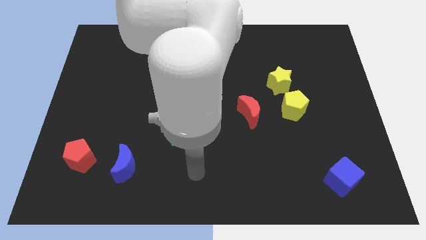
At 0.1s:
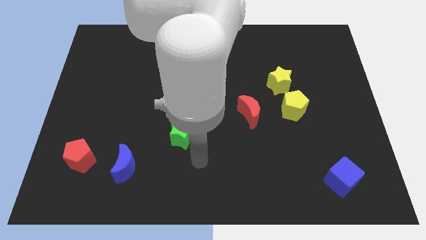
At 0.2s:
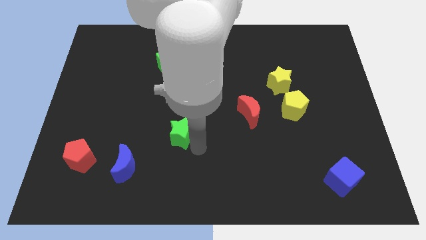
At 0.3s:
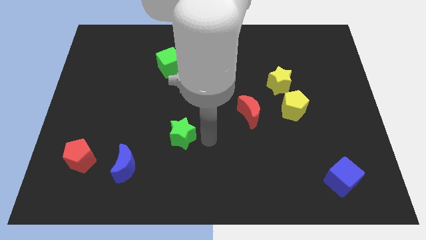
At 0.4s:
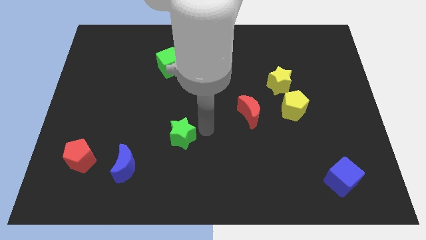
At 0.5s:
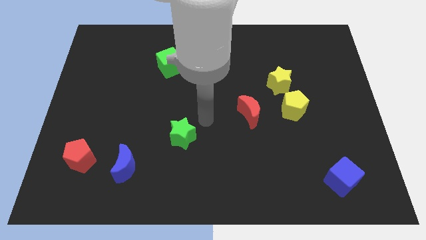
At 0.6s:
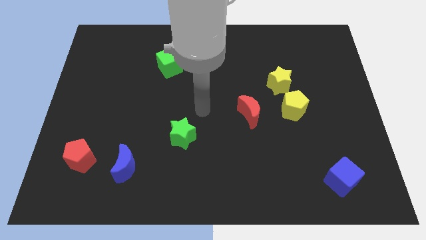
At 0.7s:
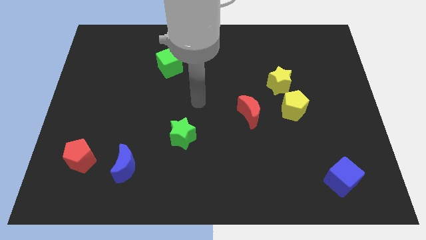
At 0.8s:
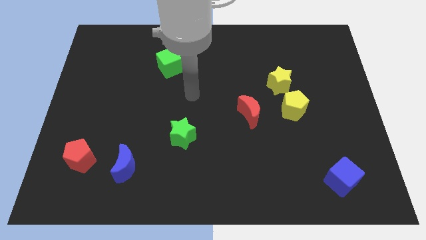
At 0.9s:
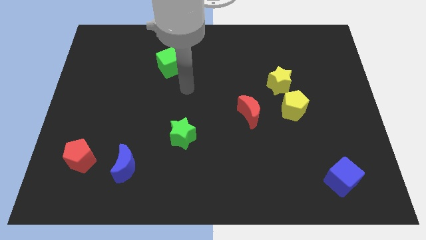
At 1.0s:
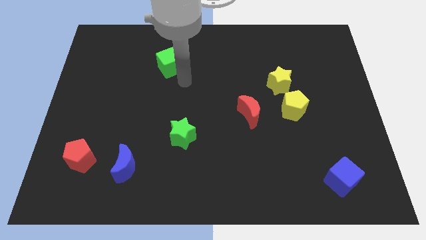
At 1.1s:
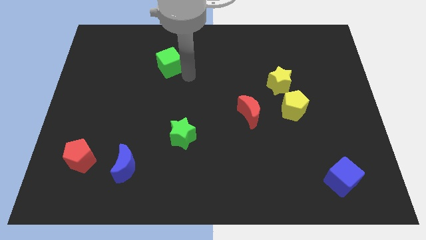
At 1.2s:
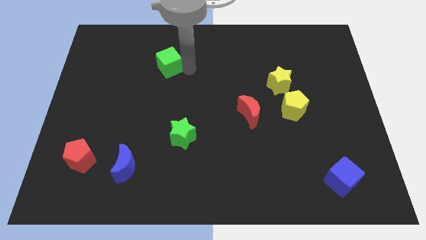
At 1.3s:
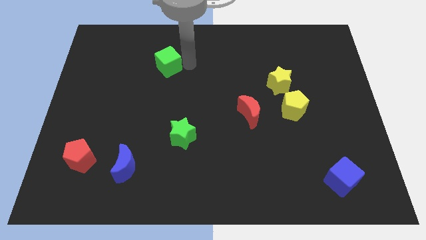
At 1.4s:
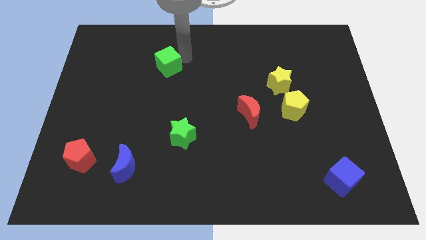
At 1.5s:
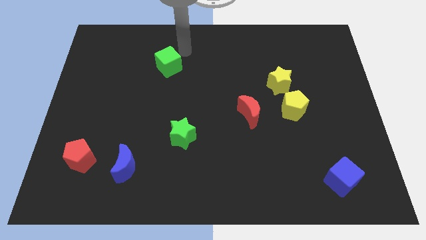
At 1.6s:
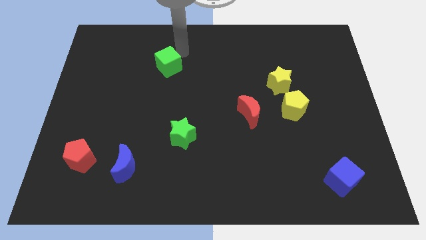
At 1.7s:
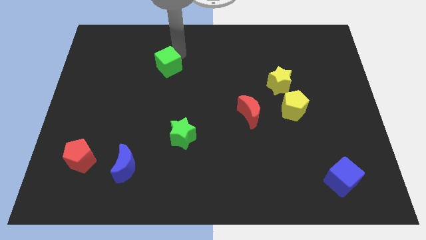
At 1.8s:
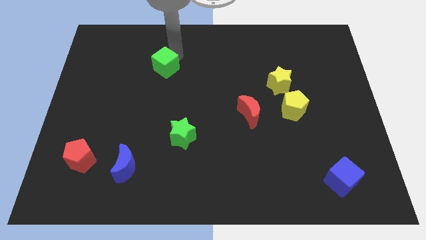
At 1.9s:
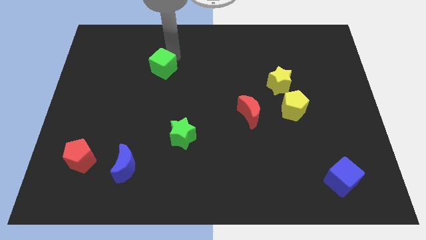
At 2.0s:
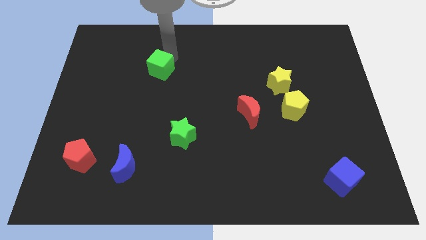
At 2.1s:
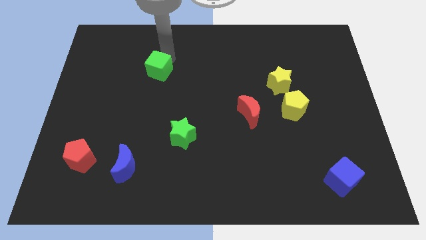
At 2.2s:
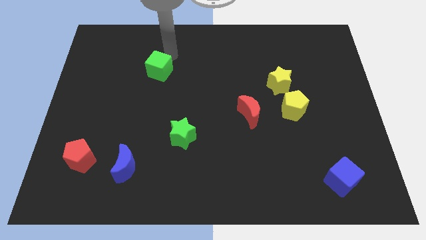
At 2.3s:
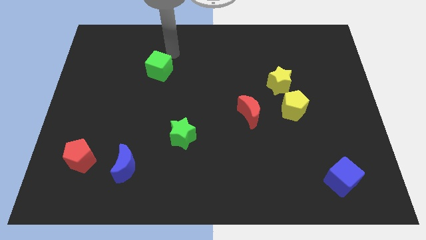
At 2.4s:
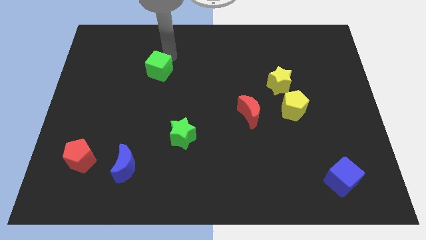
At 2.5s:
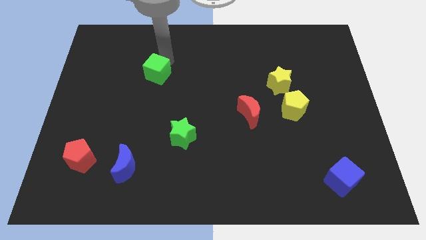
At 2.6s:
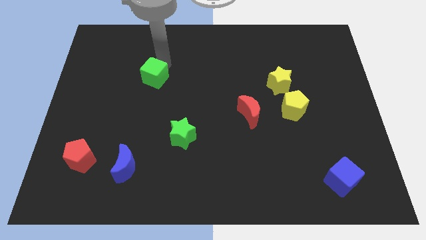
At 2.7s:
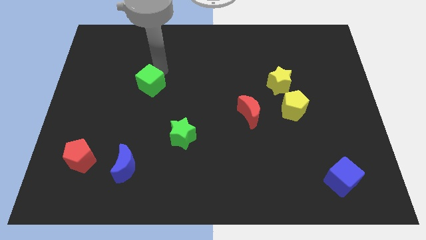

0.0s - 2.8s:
move the green cube diagonally downwards and to the left somewhat

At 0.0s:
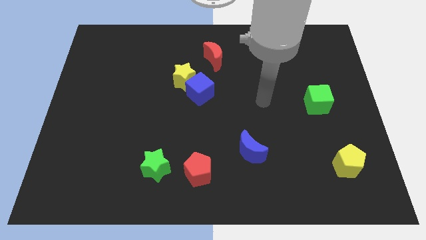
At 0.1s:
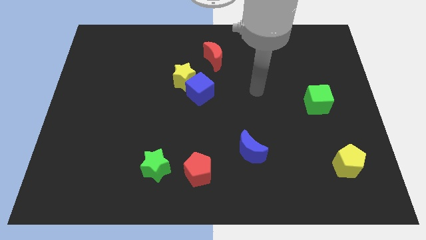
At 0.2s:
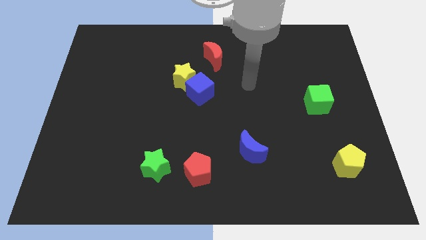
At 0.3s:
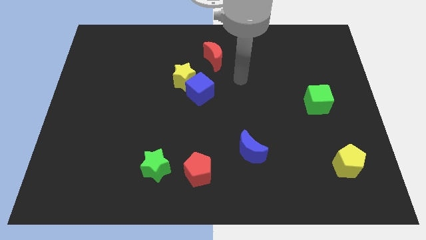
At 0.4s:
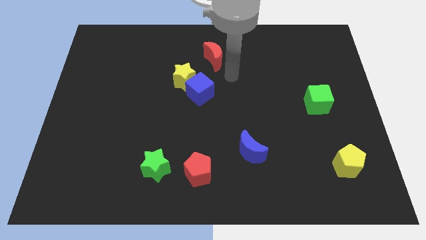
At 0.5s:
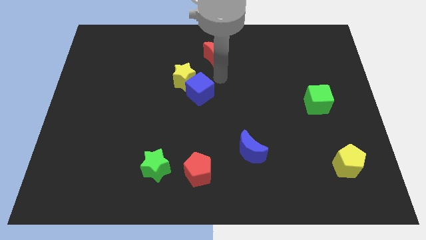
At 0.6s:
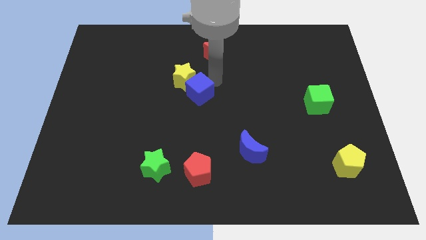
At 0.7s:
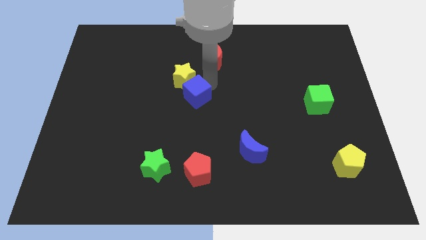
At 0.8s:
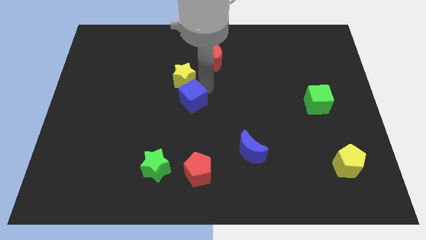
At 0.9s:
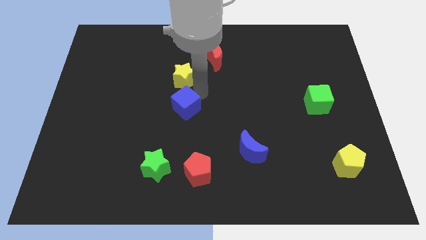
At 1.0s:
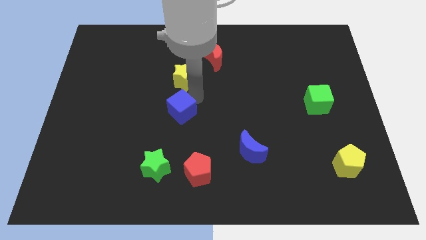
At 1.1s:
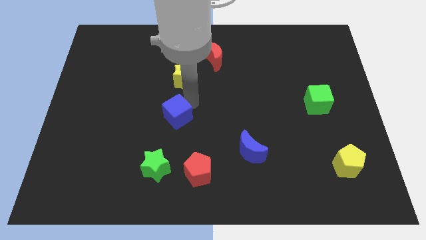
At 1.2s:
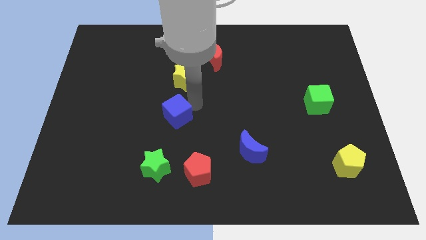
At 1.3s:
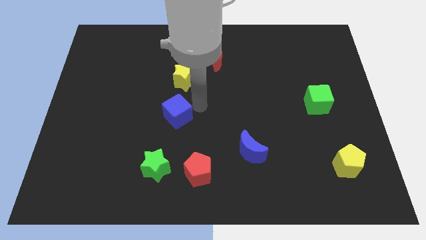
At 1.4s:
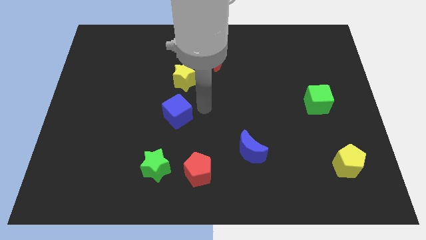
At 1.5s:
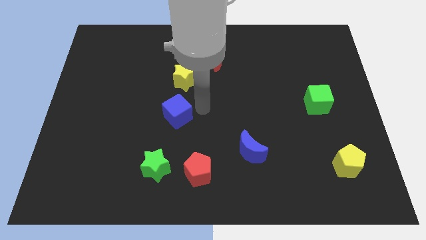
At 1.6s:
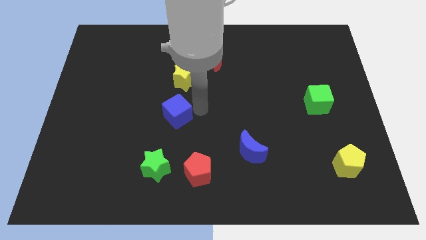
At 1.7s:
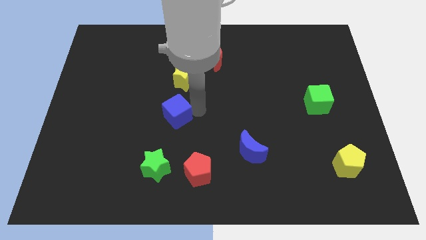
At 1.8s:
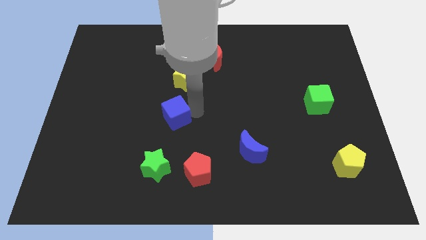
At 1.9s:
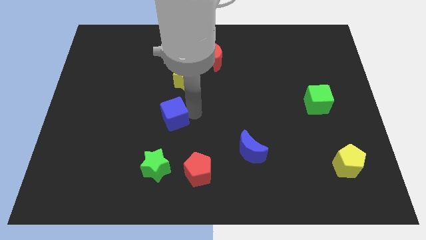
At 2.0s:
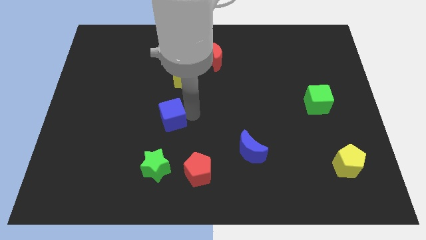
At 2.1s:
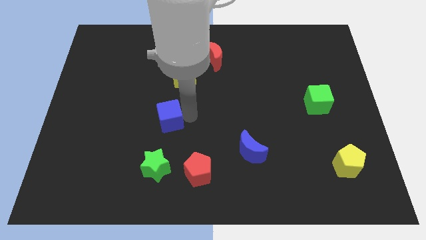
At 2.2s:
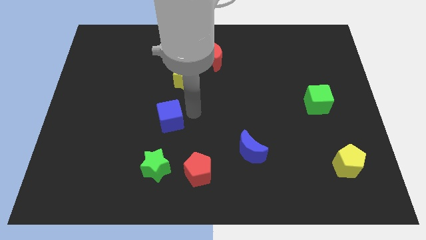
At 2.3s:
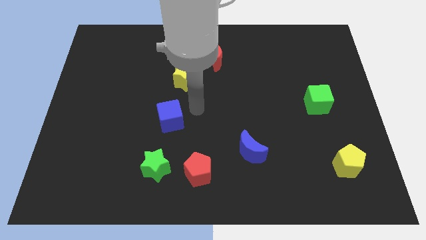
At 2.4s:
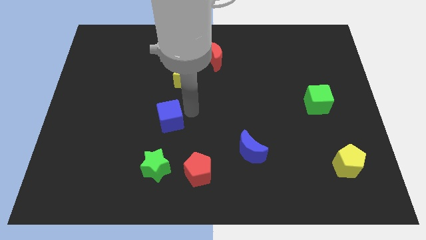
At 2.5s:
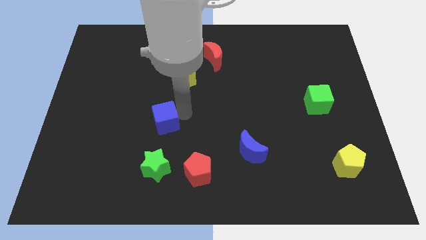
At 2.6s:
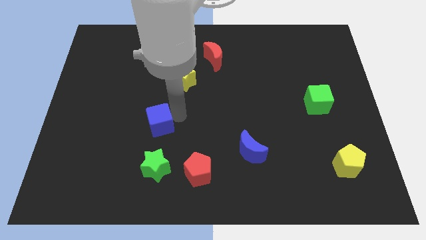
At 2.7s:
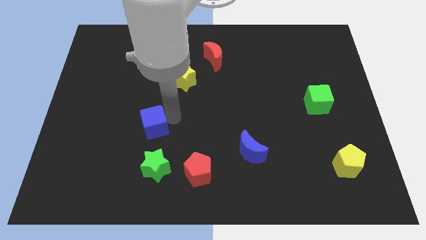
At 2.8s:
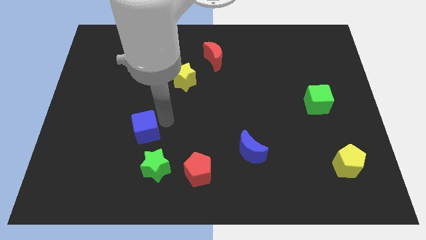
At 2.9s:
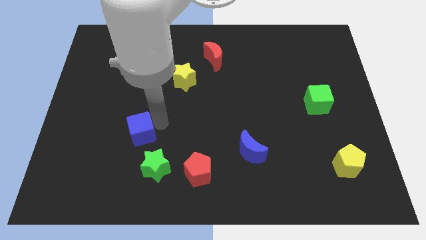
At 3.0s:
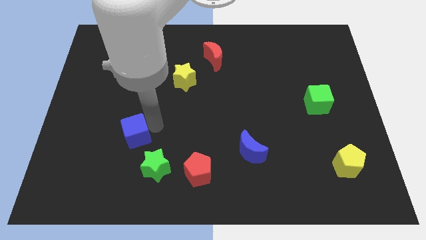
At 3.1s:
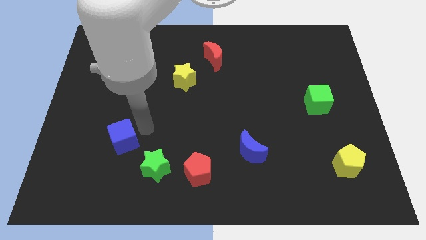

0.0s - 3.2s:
move the blue cube diagonally downwards and to the left

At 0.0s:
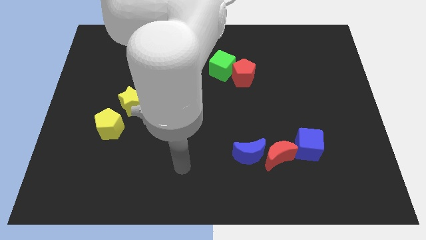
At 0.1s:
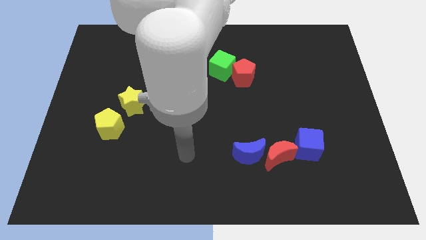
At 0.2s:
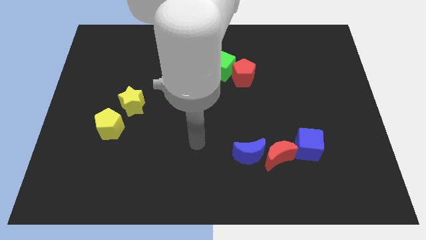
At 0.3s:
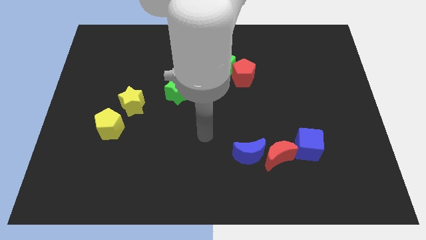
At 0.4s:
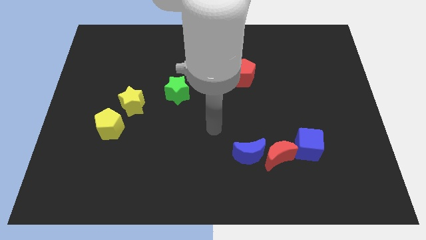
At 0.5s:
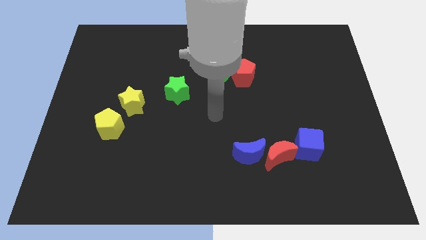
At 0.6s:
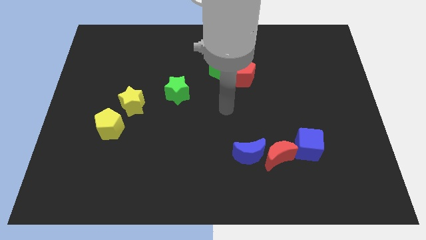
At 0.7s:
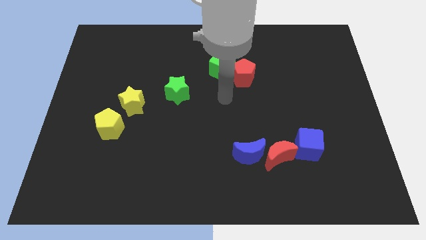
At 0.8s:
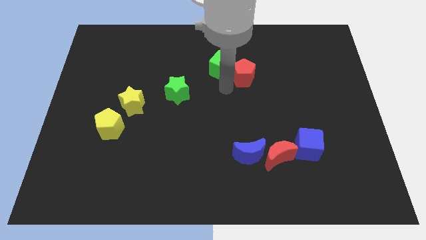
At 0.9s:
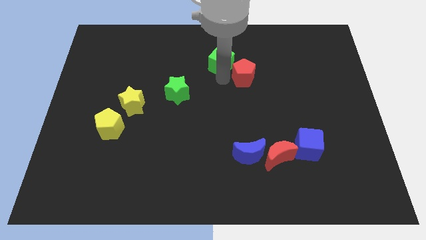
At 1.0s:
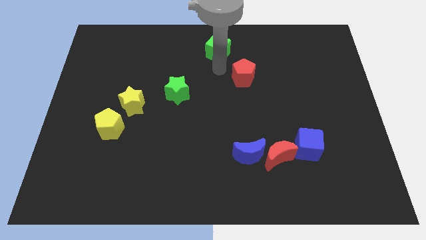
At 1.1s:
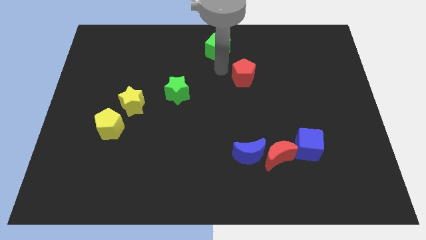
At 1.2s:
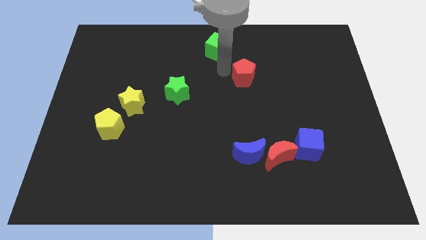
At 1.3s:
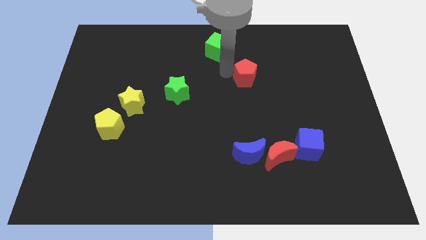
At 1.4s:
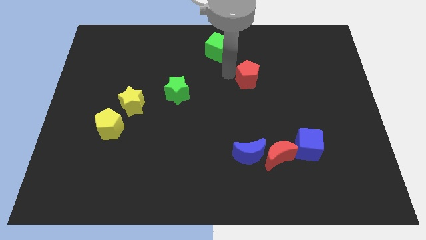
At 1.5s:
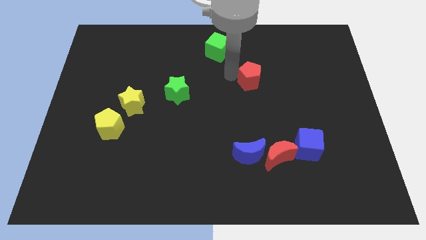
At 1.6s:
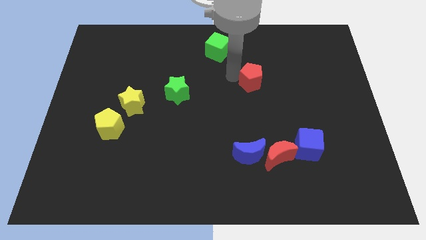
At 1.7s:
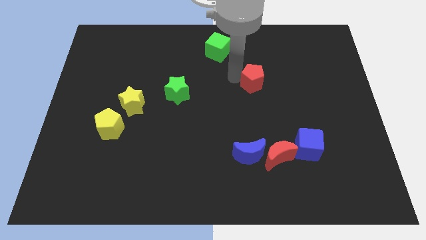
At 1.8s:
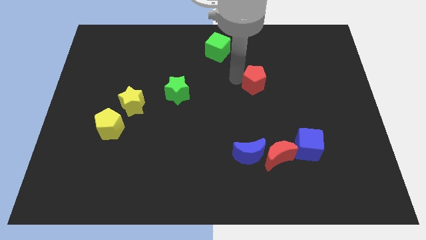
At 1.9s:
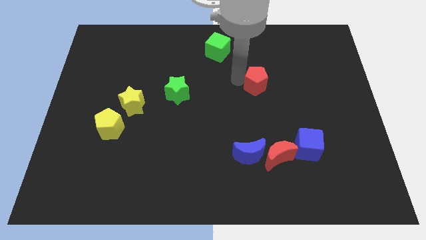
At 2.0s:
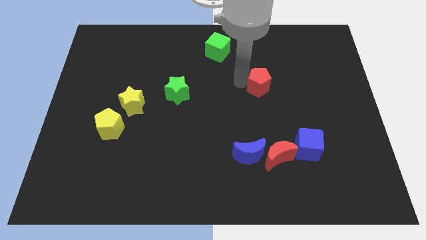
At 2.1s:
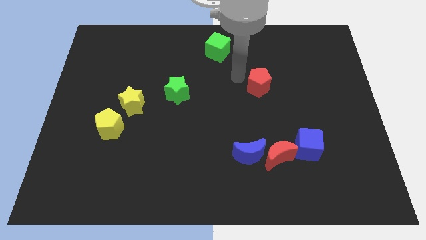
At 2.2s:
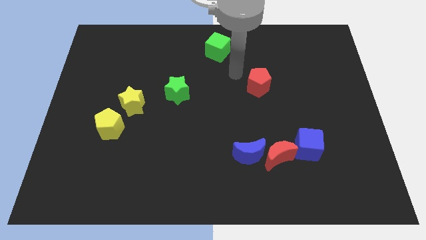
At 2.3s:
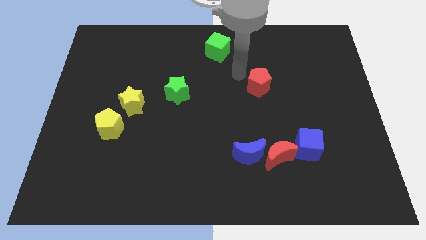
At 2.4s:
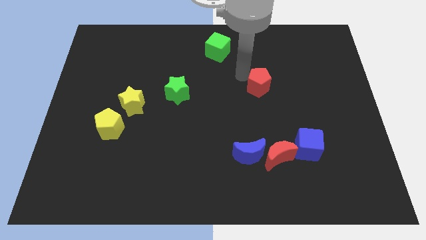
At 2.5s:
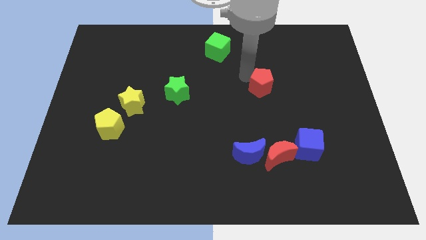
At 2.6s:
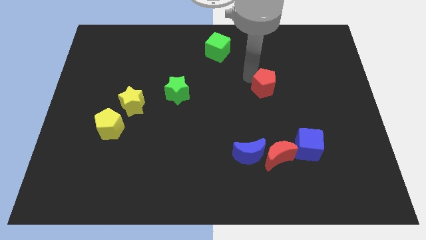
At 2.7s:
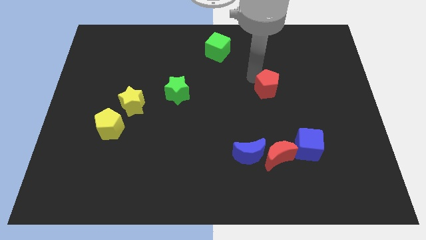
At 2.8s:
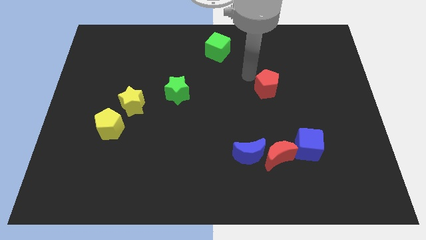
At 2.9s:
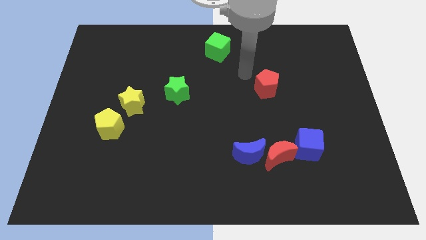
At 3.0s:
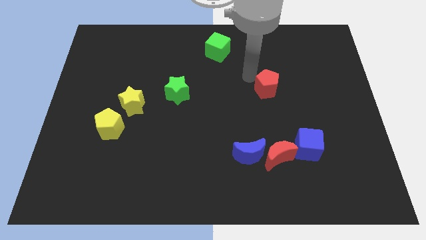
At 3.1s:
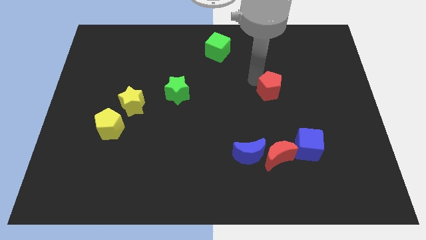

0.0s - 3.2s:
push the red pentagon somewhat downwards and right diagonally
